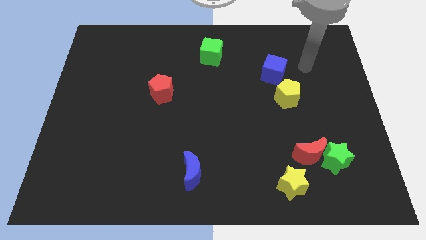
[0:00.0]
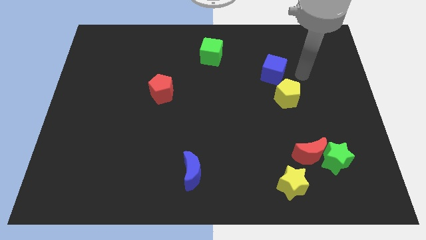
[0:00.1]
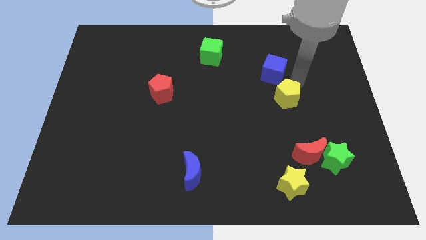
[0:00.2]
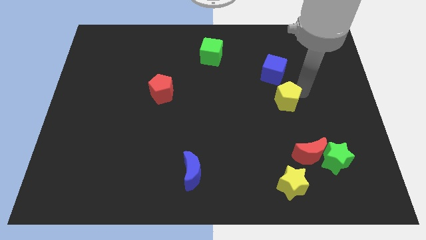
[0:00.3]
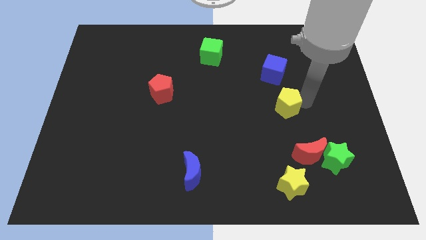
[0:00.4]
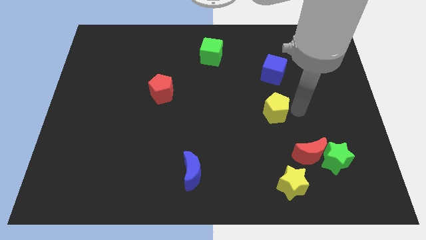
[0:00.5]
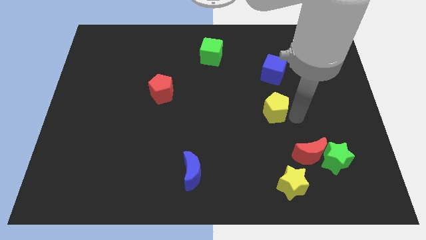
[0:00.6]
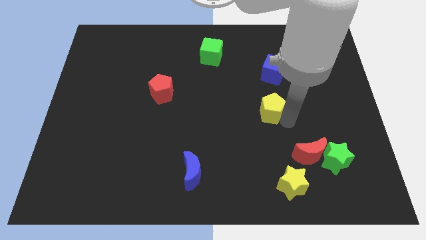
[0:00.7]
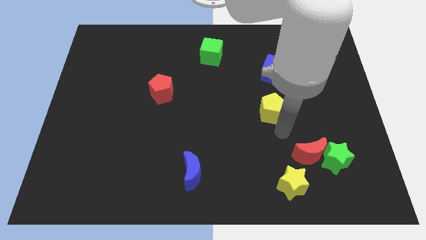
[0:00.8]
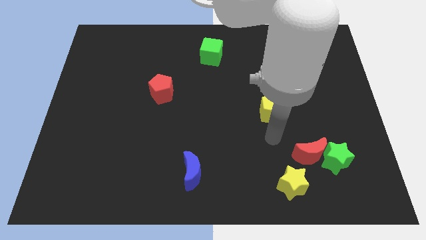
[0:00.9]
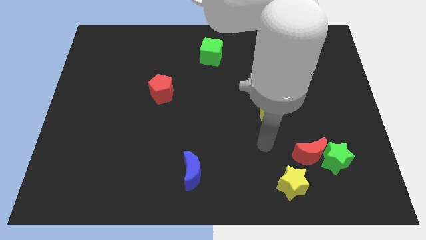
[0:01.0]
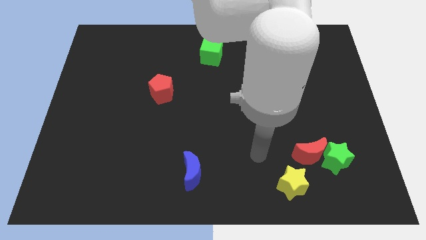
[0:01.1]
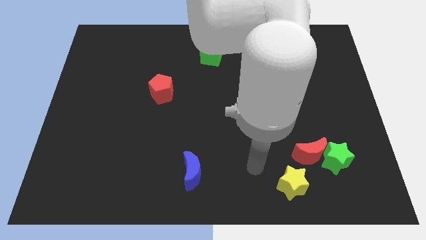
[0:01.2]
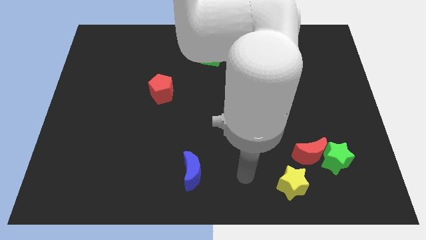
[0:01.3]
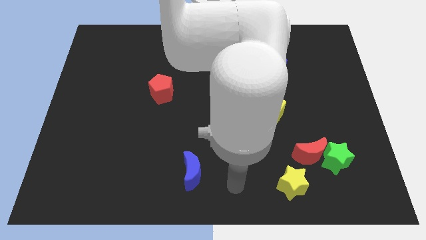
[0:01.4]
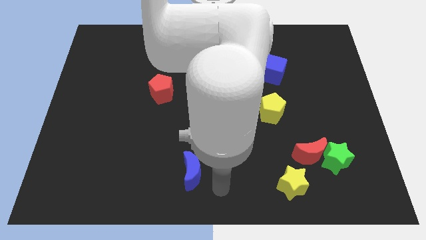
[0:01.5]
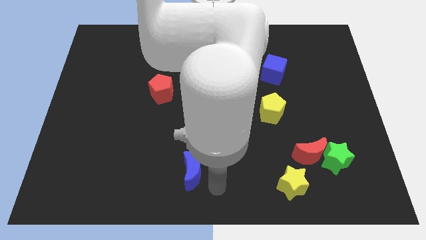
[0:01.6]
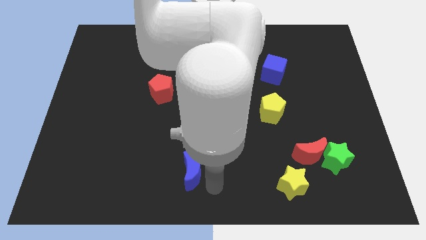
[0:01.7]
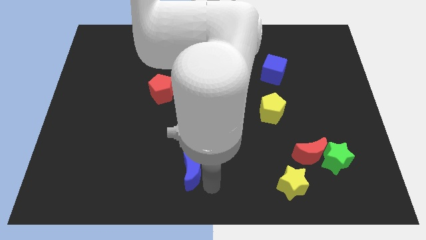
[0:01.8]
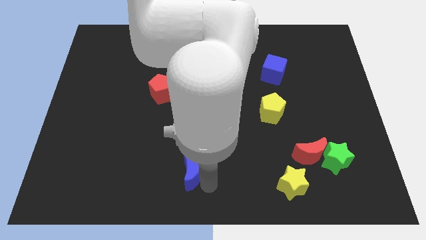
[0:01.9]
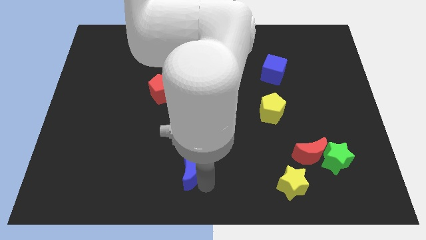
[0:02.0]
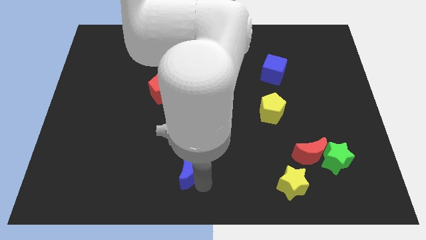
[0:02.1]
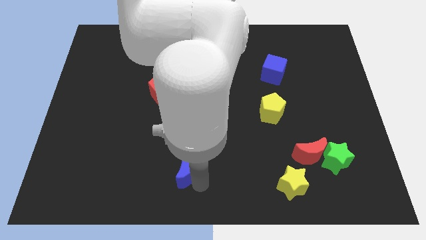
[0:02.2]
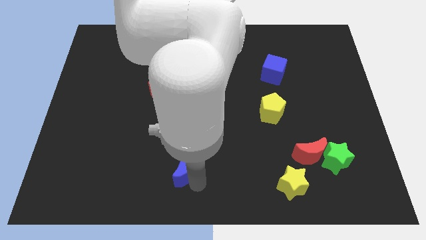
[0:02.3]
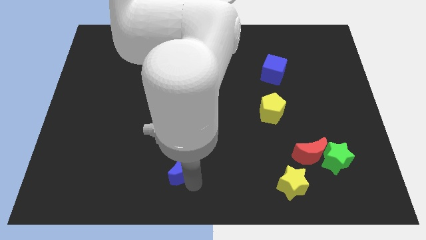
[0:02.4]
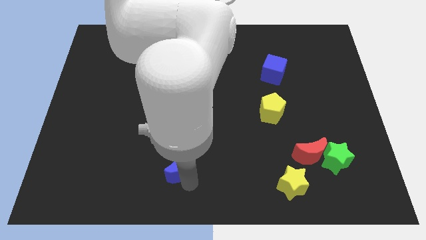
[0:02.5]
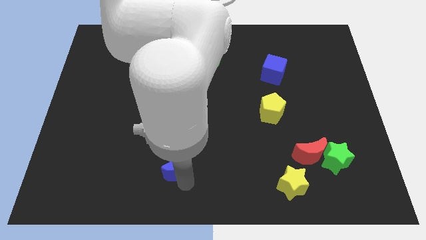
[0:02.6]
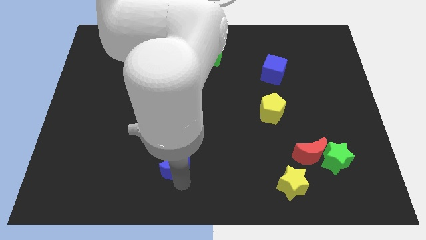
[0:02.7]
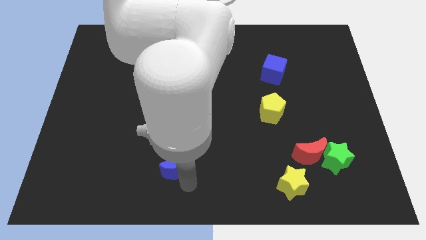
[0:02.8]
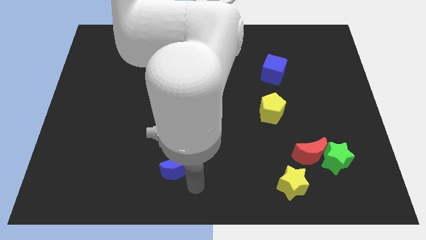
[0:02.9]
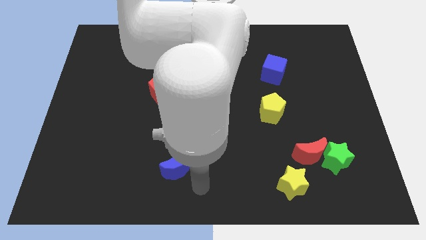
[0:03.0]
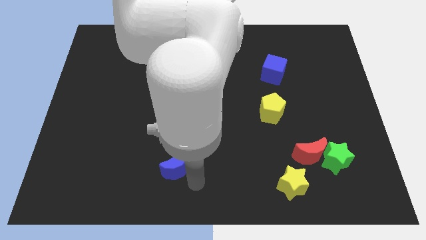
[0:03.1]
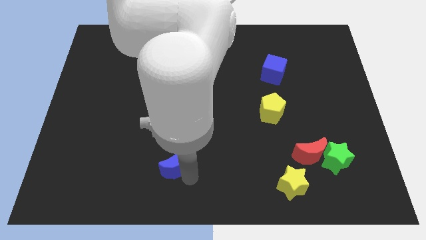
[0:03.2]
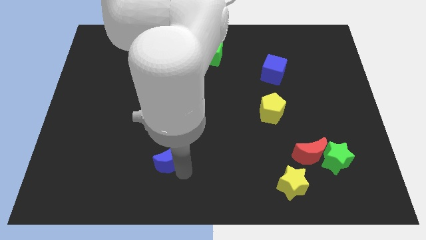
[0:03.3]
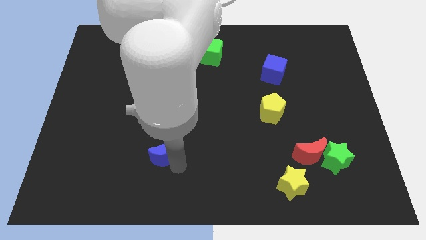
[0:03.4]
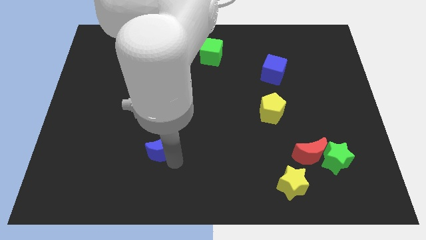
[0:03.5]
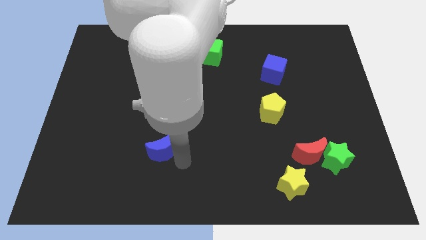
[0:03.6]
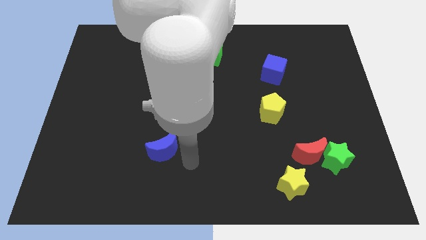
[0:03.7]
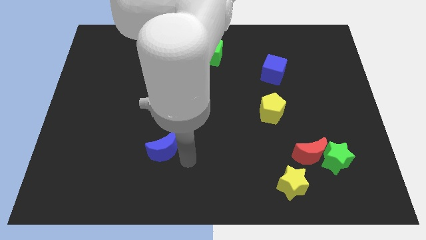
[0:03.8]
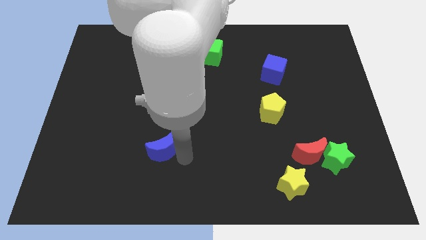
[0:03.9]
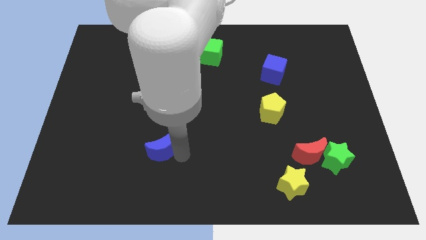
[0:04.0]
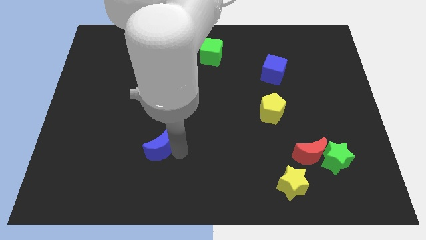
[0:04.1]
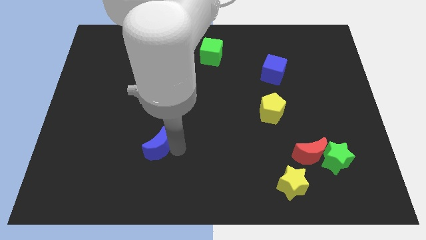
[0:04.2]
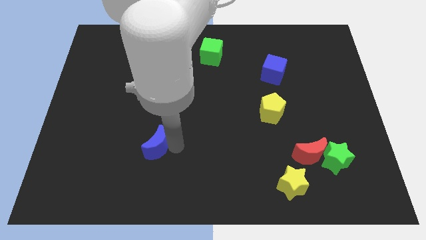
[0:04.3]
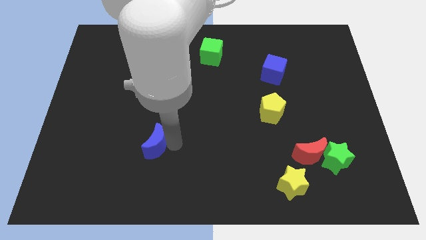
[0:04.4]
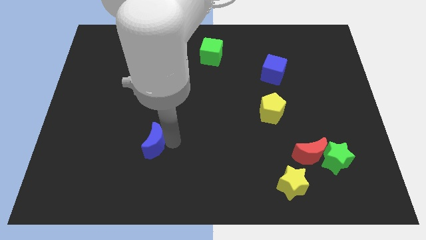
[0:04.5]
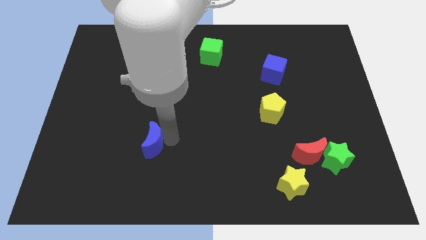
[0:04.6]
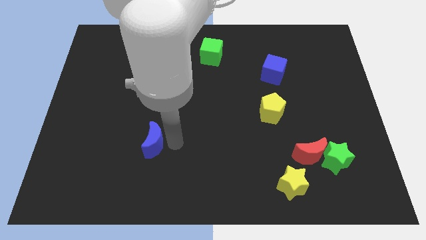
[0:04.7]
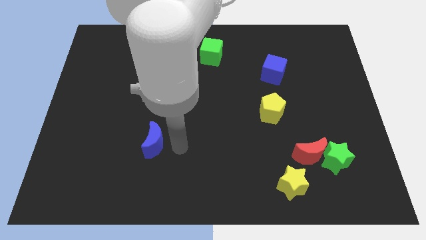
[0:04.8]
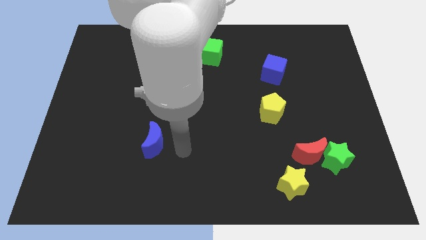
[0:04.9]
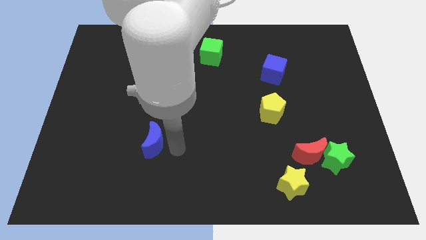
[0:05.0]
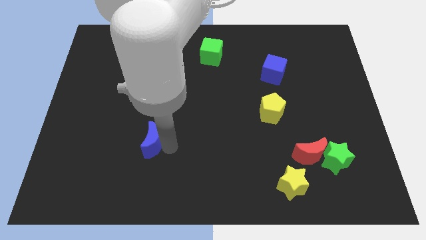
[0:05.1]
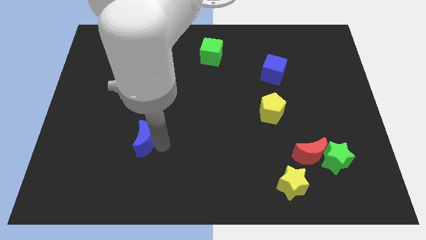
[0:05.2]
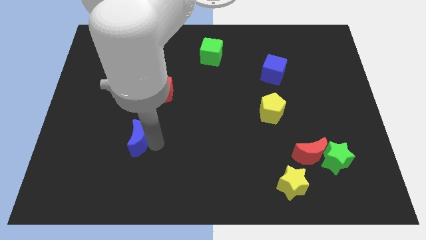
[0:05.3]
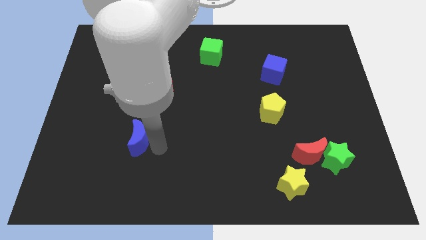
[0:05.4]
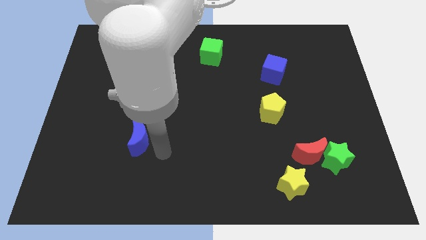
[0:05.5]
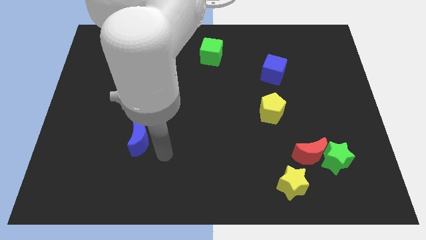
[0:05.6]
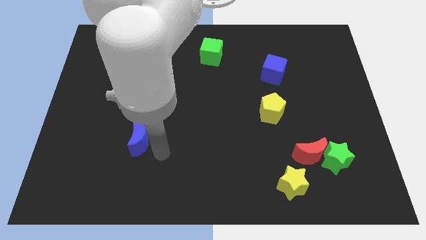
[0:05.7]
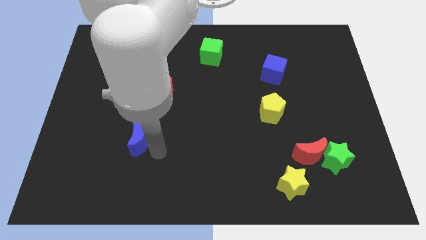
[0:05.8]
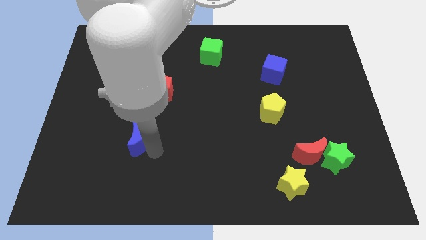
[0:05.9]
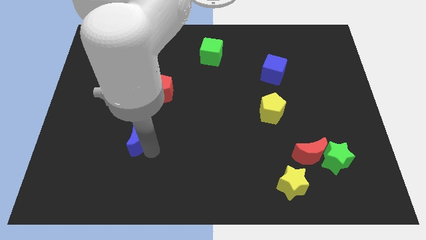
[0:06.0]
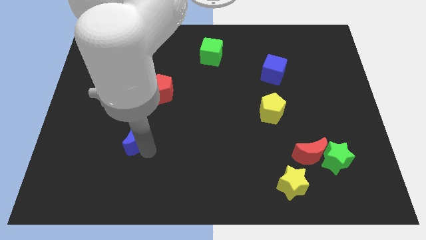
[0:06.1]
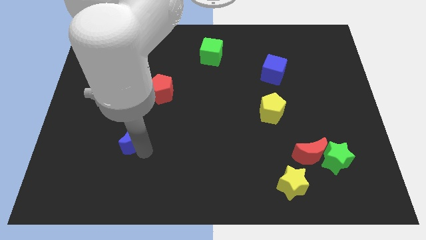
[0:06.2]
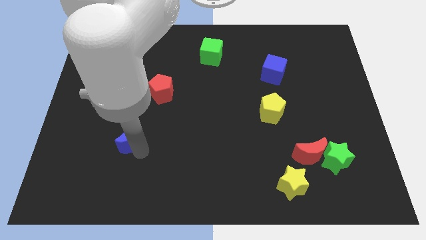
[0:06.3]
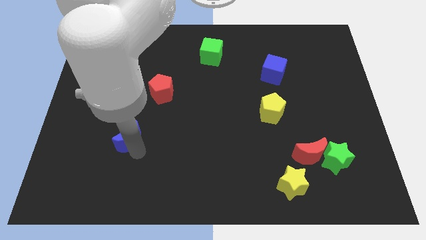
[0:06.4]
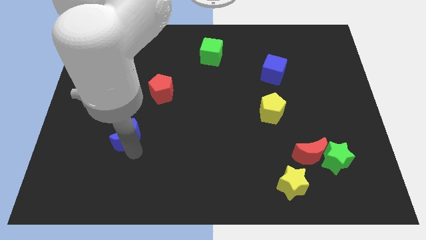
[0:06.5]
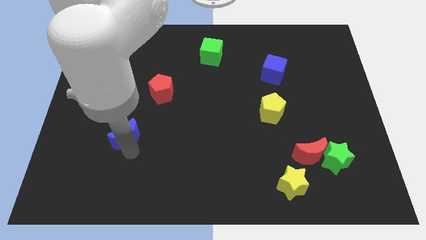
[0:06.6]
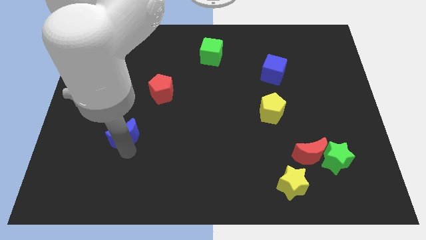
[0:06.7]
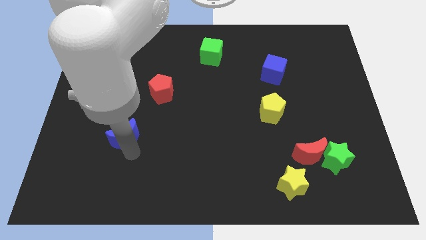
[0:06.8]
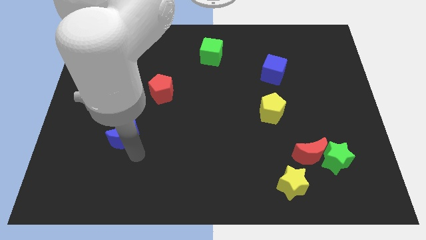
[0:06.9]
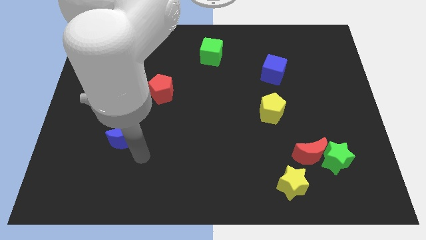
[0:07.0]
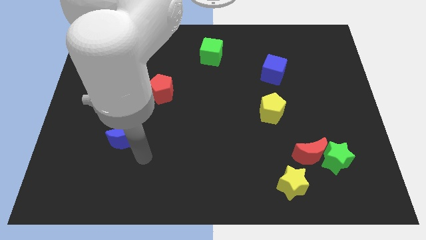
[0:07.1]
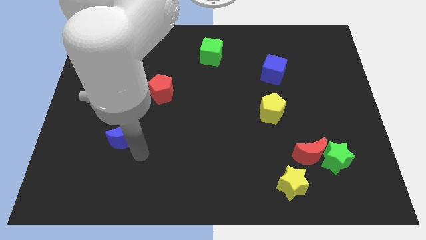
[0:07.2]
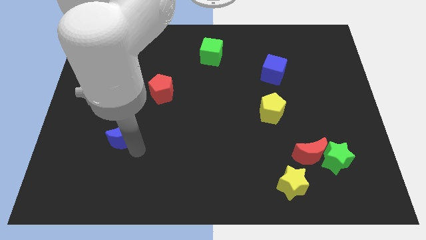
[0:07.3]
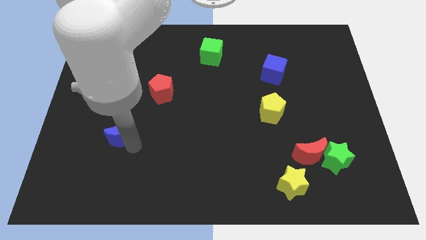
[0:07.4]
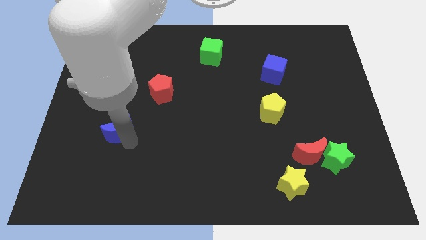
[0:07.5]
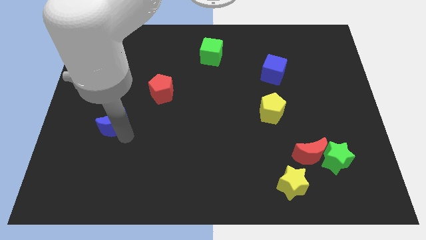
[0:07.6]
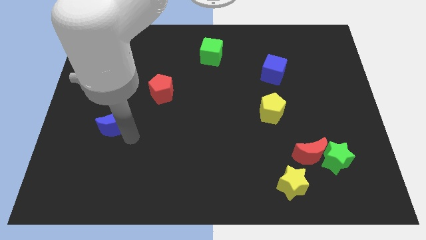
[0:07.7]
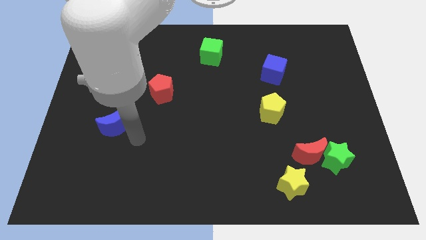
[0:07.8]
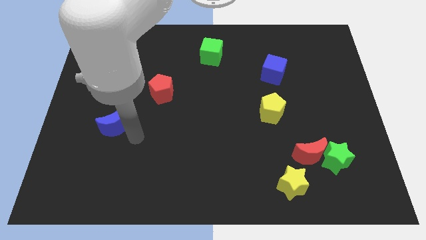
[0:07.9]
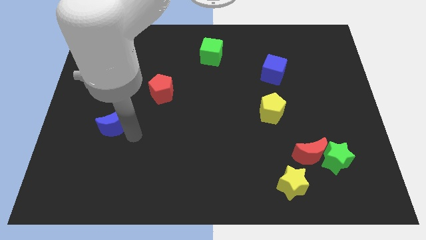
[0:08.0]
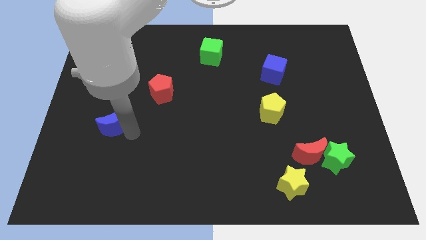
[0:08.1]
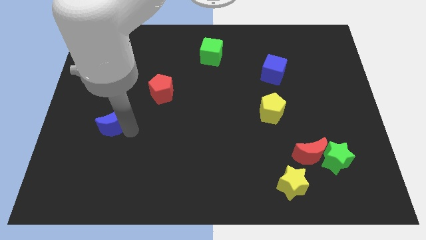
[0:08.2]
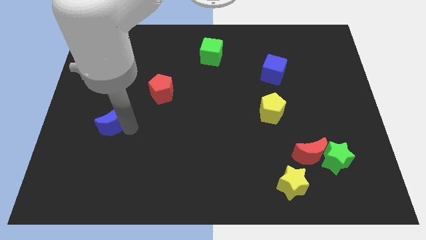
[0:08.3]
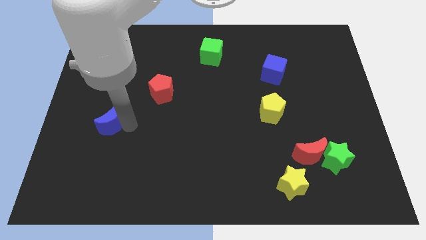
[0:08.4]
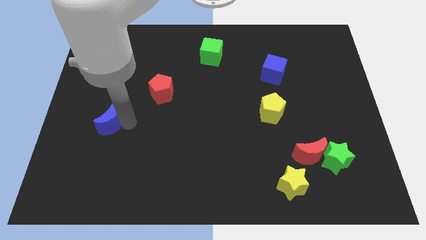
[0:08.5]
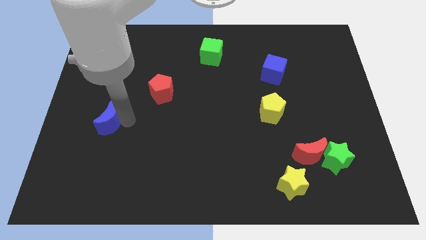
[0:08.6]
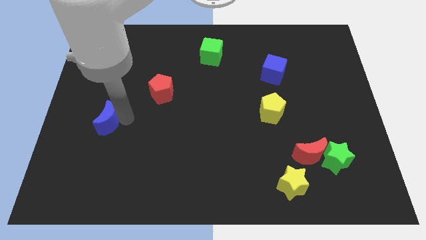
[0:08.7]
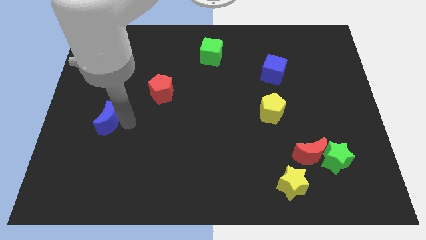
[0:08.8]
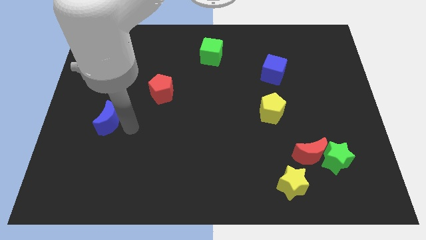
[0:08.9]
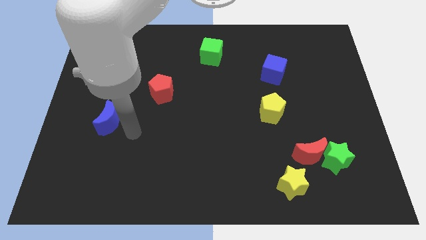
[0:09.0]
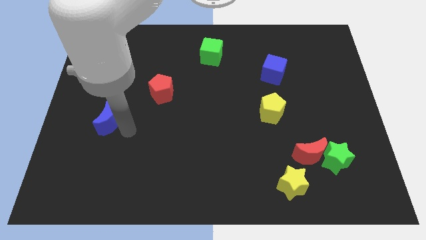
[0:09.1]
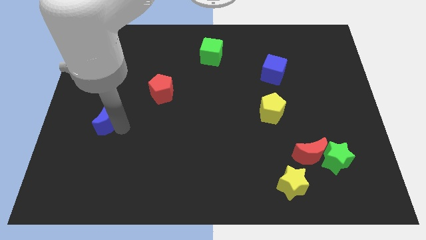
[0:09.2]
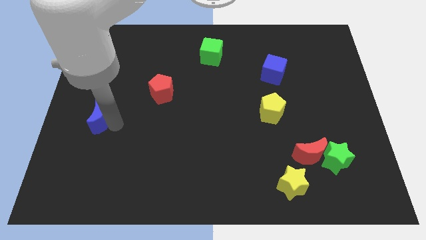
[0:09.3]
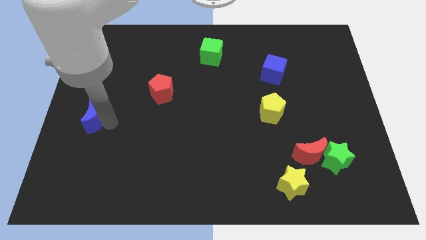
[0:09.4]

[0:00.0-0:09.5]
slide the blue moon to the left side
